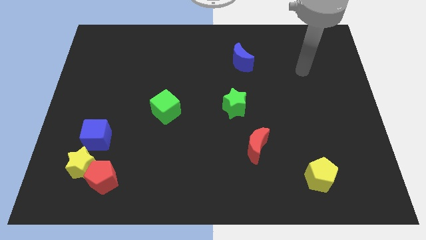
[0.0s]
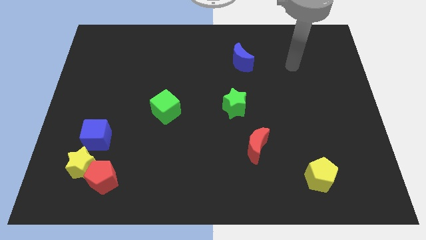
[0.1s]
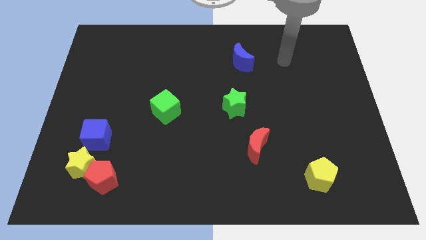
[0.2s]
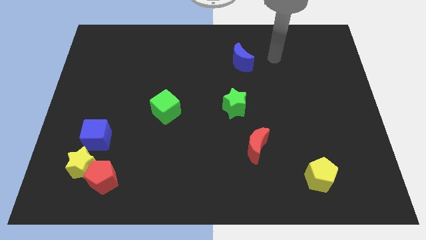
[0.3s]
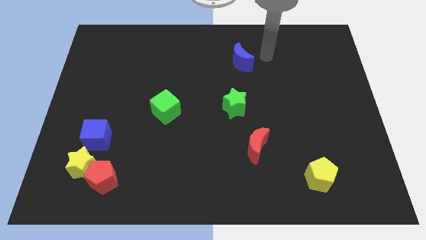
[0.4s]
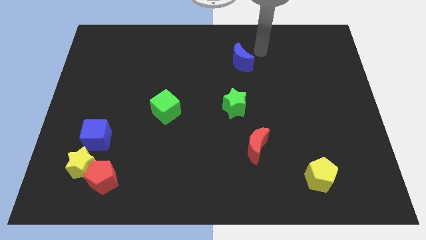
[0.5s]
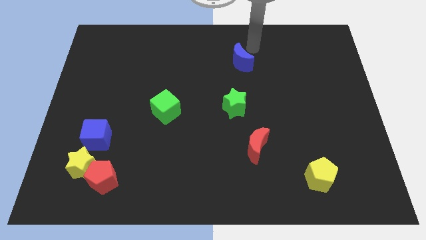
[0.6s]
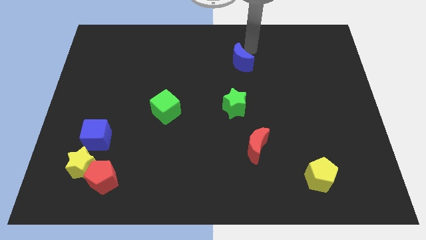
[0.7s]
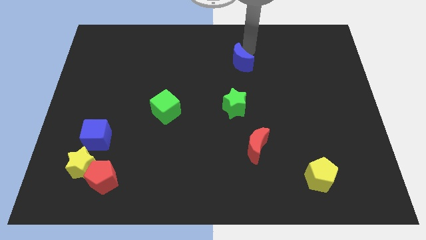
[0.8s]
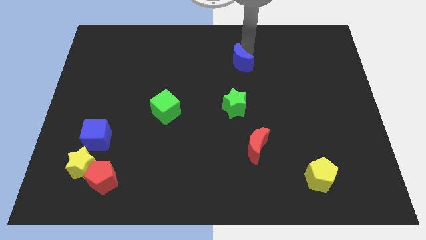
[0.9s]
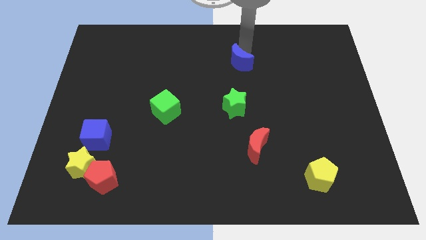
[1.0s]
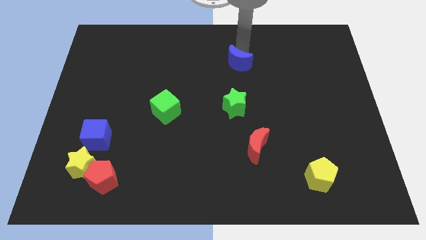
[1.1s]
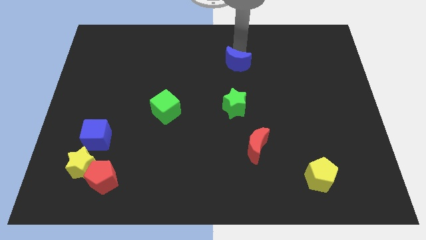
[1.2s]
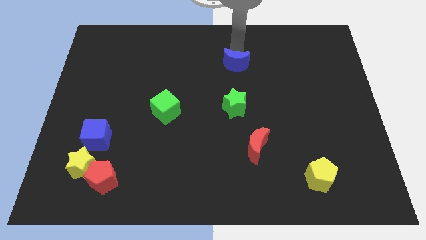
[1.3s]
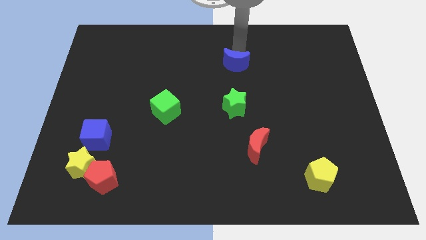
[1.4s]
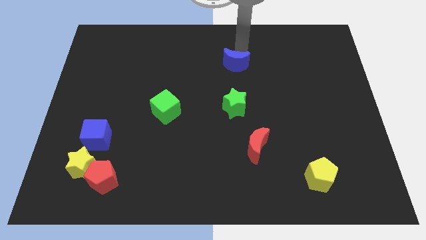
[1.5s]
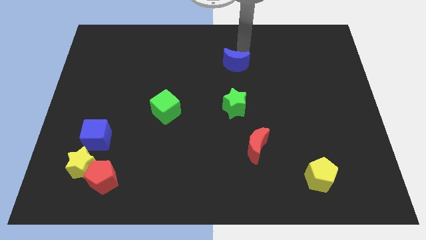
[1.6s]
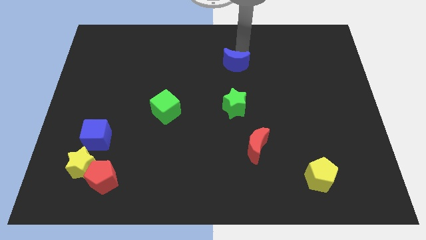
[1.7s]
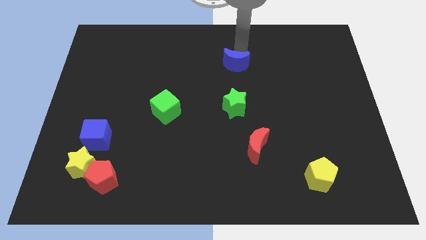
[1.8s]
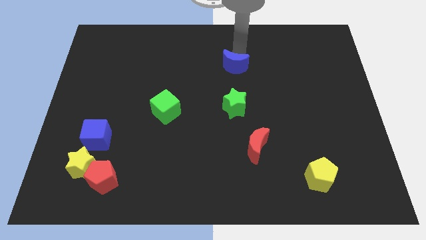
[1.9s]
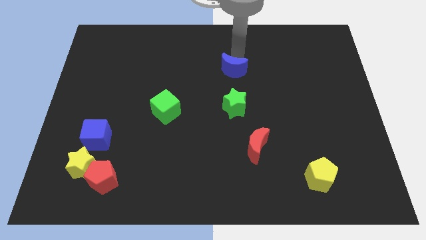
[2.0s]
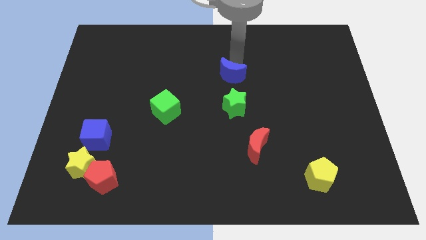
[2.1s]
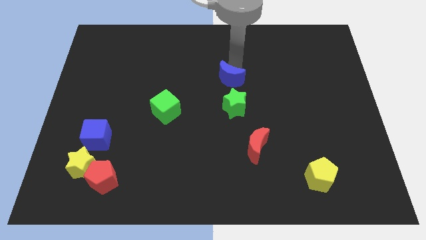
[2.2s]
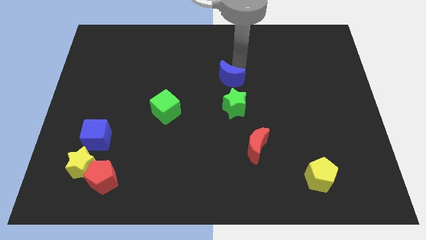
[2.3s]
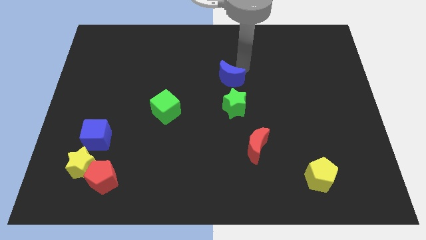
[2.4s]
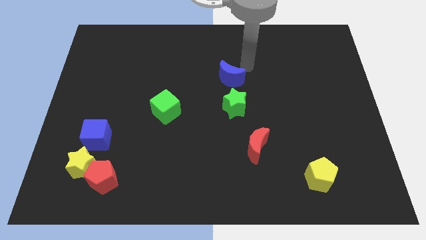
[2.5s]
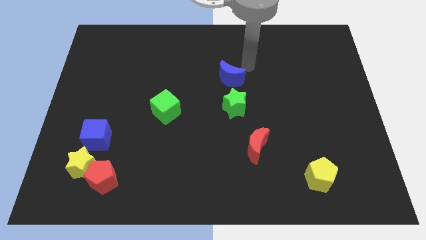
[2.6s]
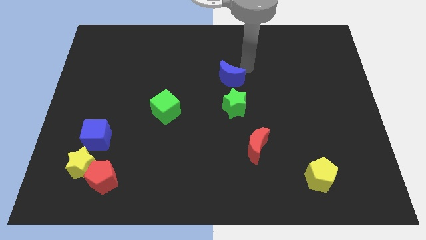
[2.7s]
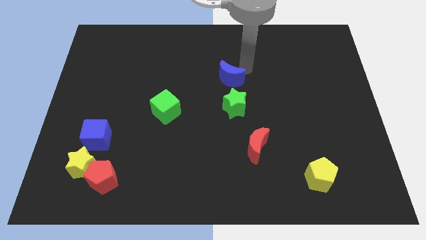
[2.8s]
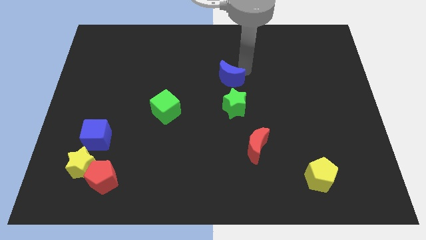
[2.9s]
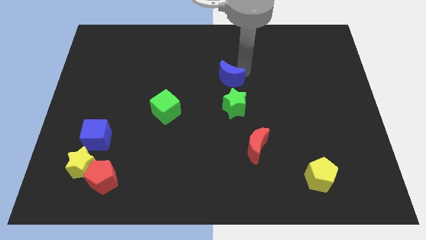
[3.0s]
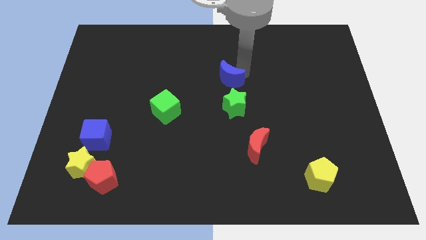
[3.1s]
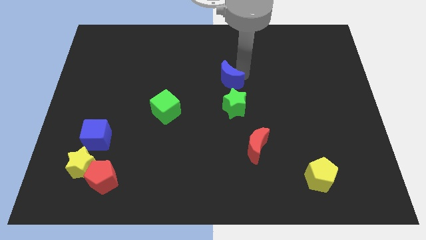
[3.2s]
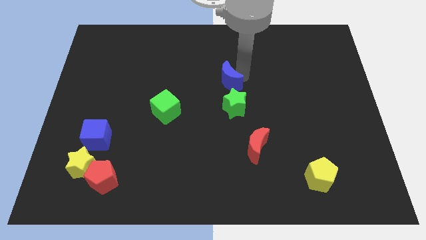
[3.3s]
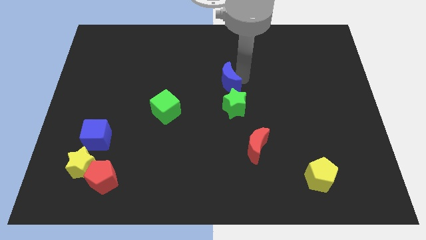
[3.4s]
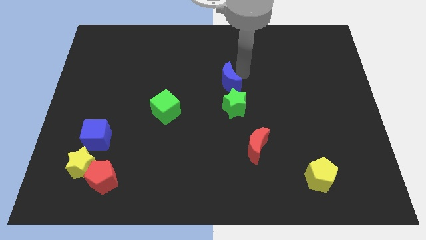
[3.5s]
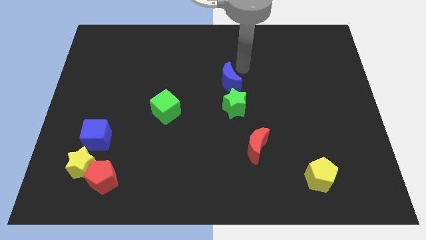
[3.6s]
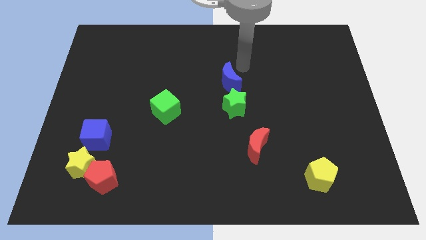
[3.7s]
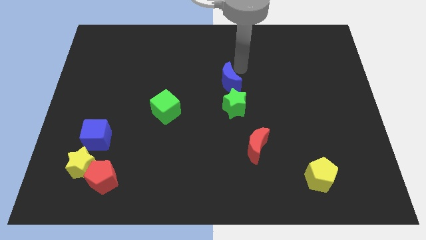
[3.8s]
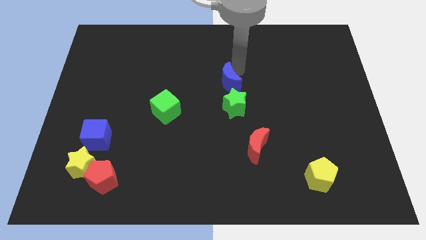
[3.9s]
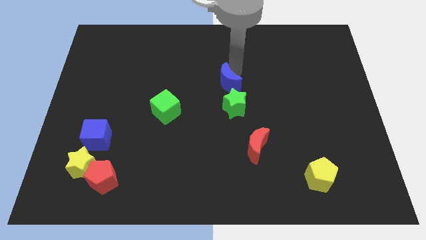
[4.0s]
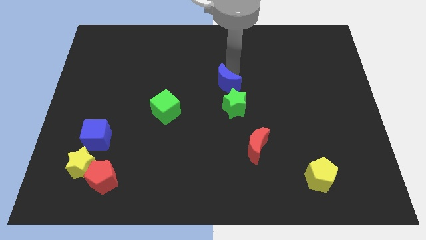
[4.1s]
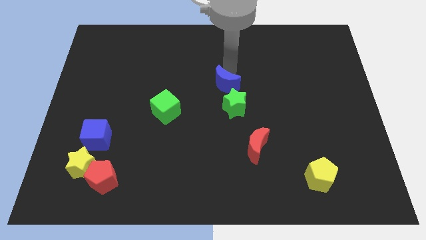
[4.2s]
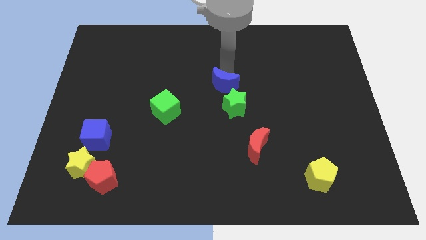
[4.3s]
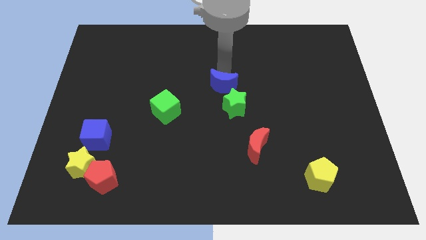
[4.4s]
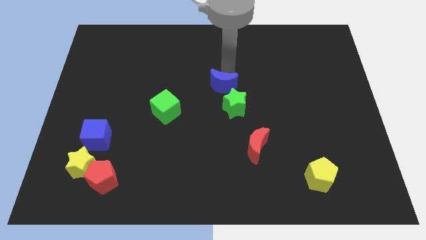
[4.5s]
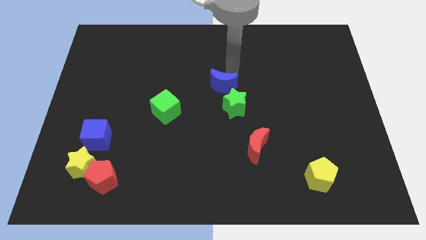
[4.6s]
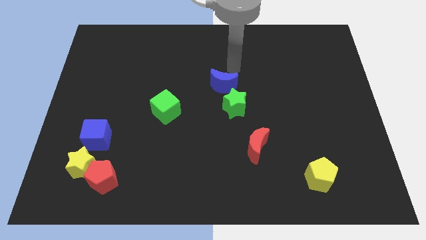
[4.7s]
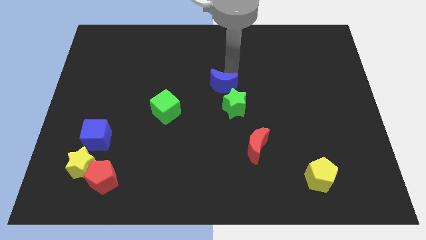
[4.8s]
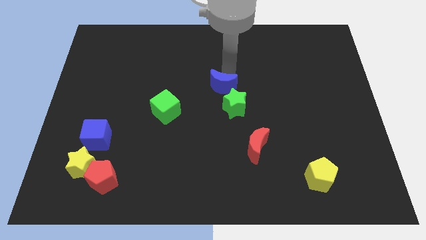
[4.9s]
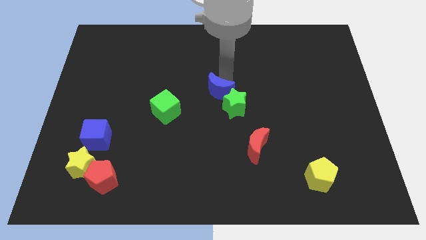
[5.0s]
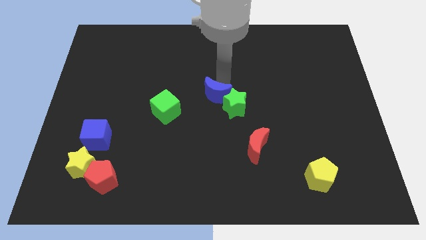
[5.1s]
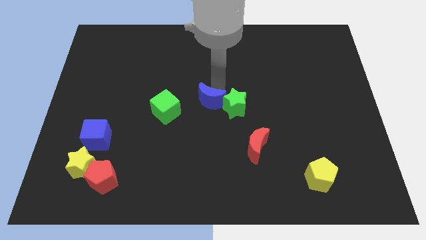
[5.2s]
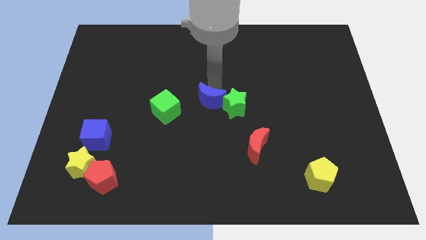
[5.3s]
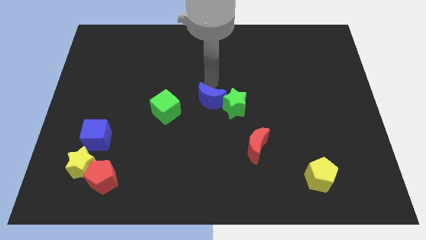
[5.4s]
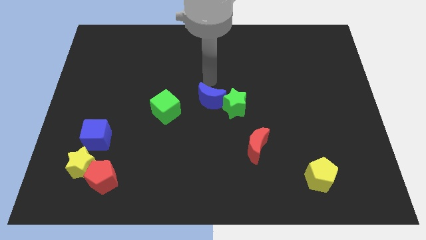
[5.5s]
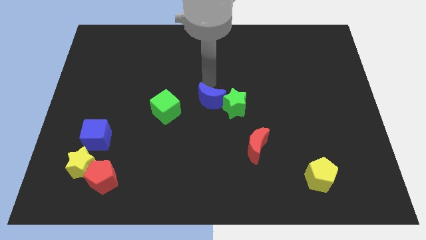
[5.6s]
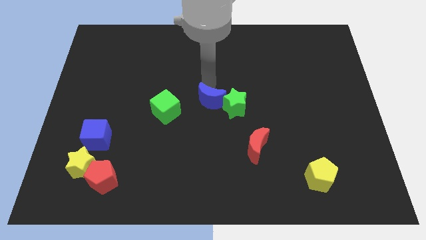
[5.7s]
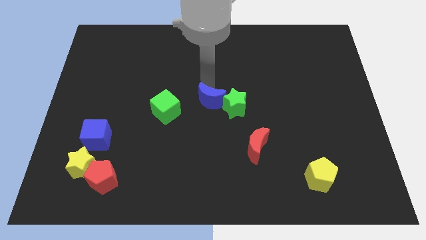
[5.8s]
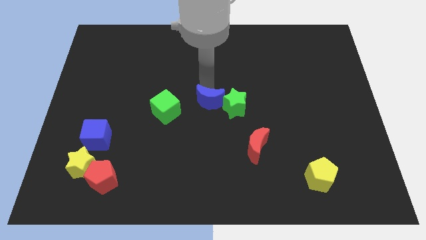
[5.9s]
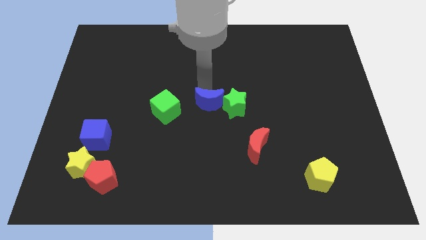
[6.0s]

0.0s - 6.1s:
slide the blue moon diagonally down and to the left of the green star

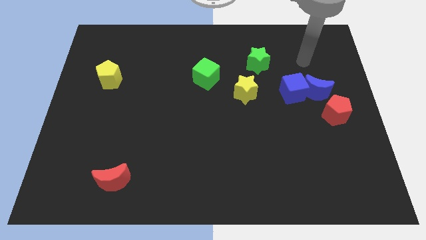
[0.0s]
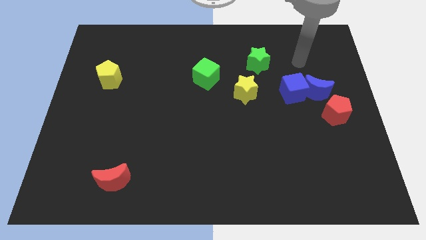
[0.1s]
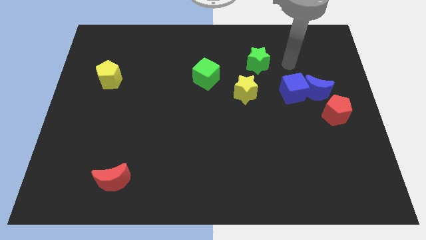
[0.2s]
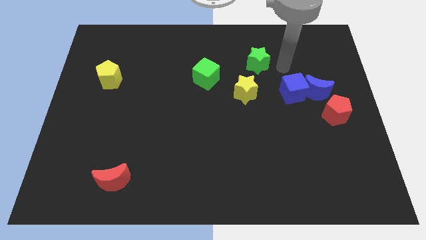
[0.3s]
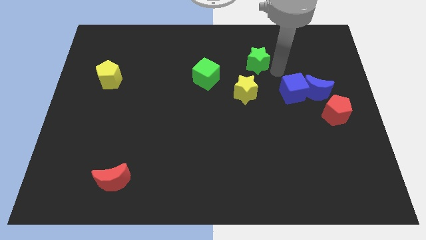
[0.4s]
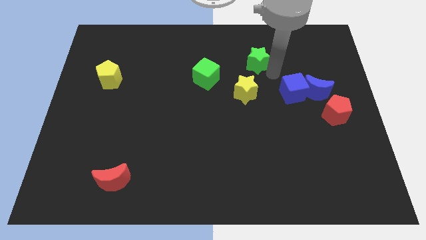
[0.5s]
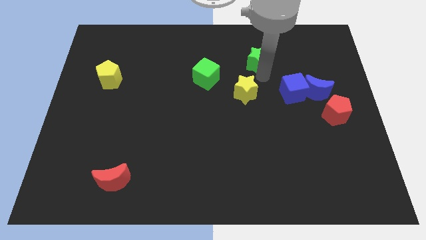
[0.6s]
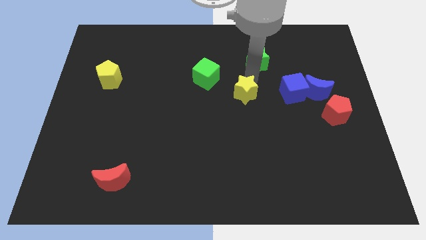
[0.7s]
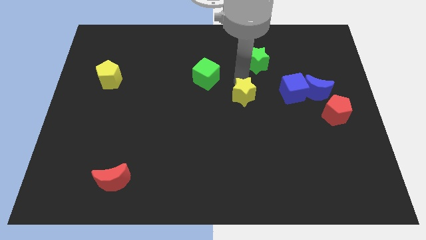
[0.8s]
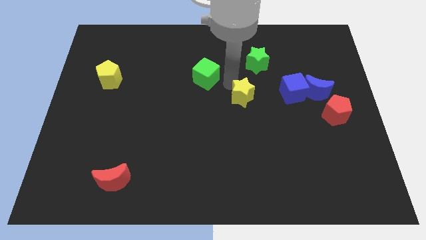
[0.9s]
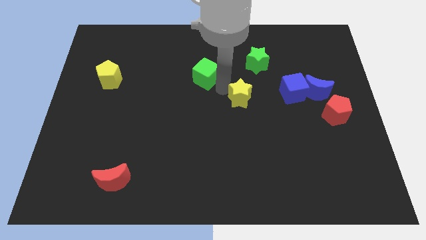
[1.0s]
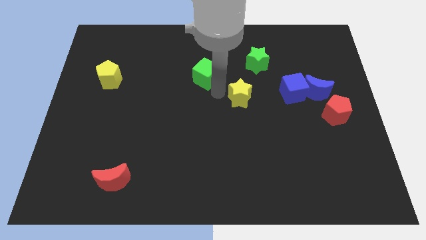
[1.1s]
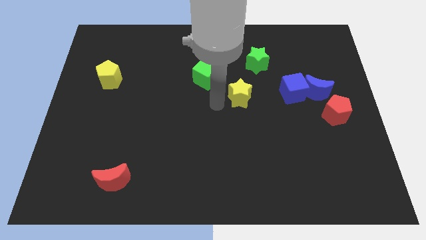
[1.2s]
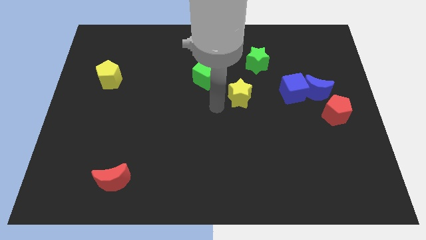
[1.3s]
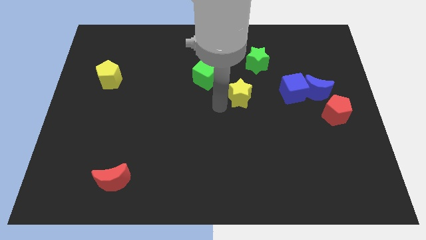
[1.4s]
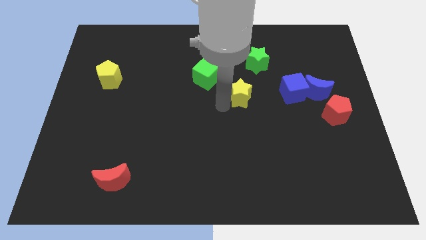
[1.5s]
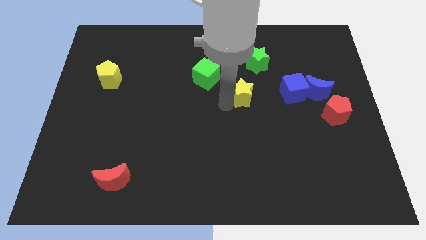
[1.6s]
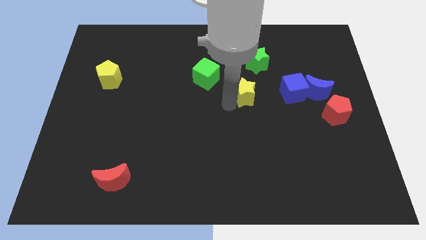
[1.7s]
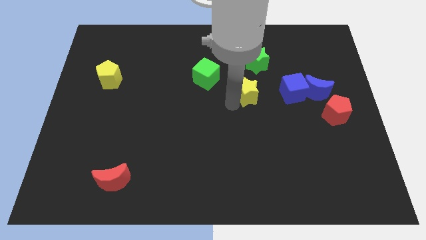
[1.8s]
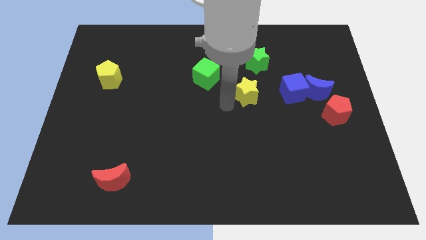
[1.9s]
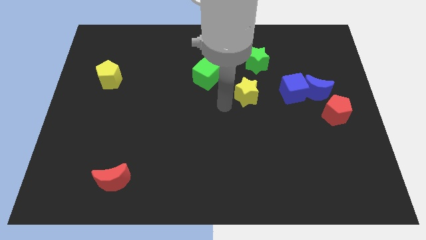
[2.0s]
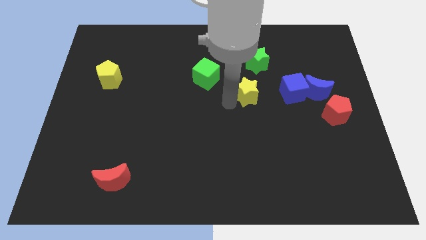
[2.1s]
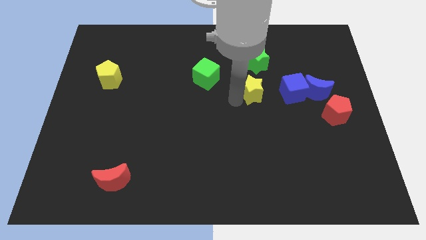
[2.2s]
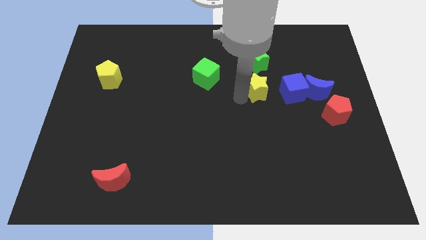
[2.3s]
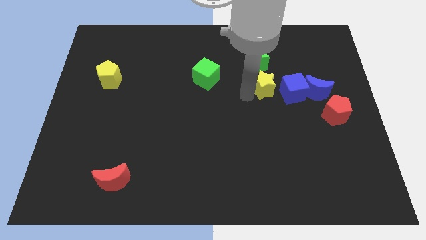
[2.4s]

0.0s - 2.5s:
put the yellow star diagonally down and to the right of the green star
